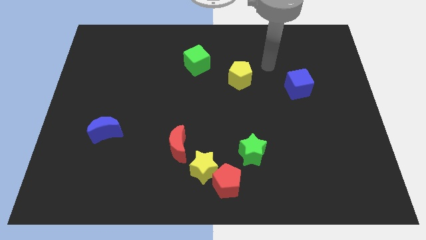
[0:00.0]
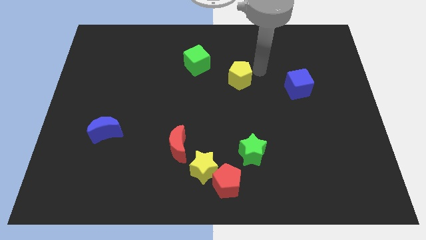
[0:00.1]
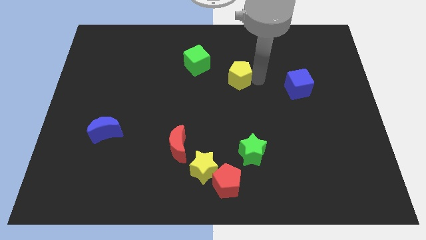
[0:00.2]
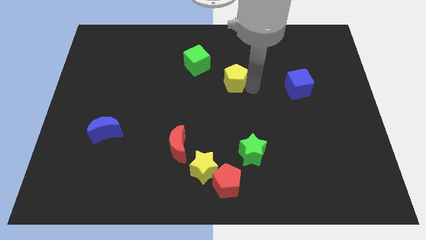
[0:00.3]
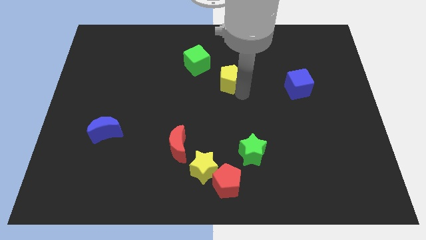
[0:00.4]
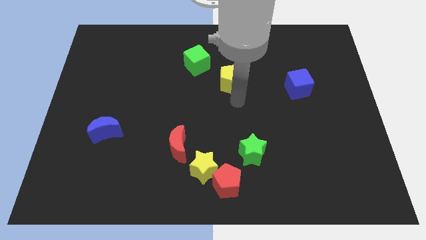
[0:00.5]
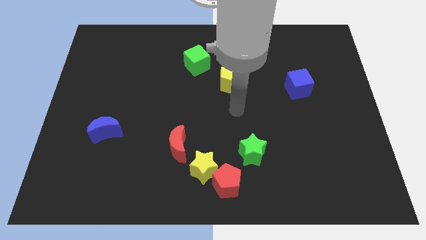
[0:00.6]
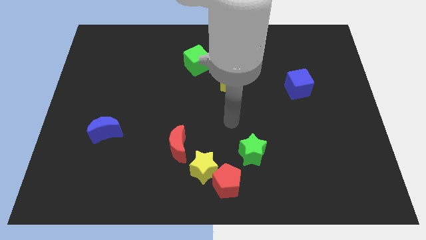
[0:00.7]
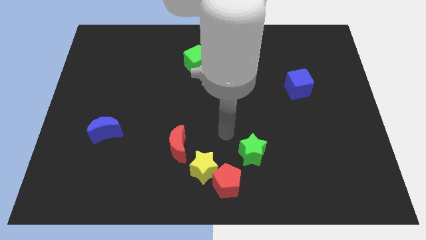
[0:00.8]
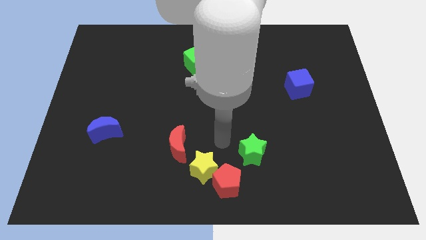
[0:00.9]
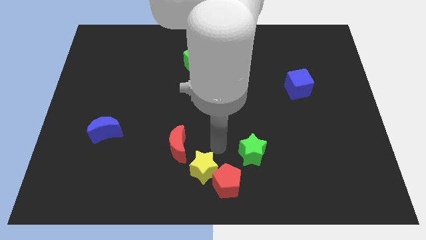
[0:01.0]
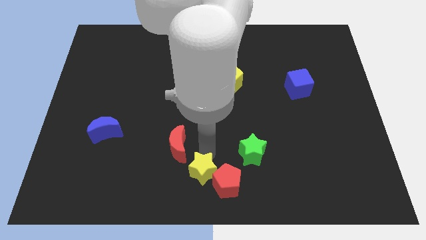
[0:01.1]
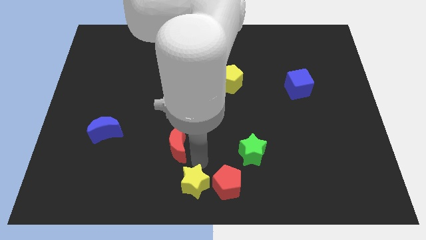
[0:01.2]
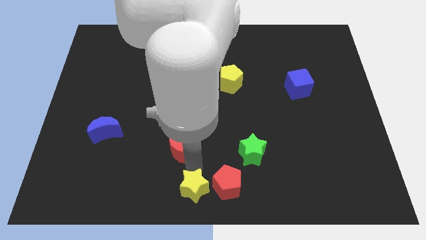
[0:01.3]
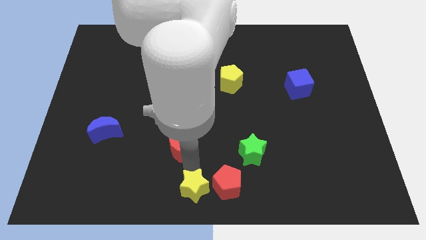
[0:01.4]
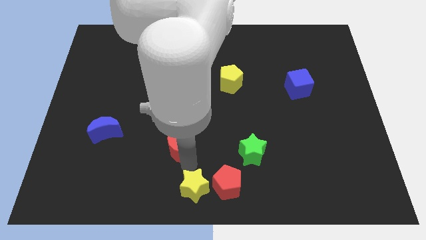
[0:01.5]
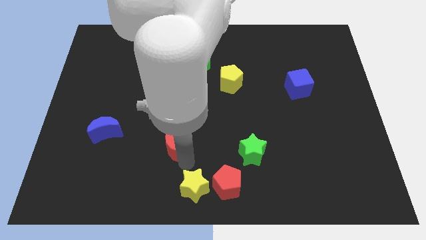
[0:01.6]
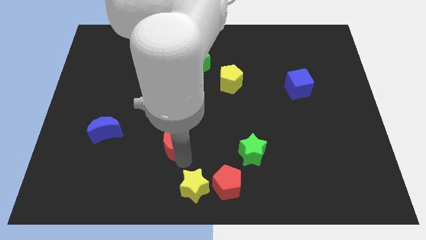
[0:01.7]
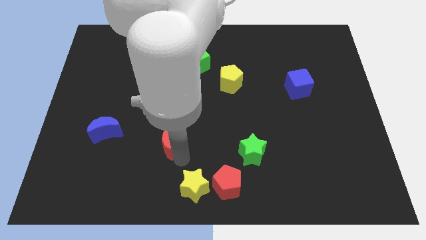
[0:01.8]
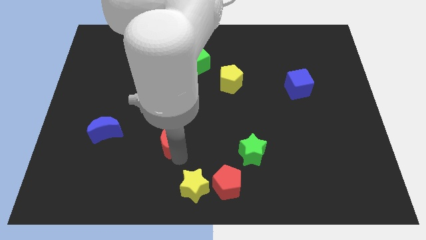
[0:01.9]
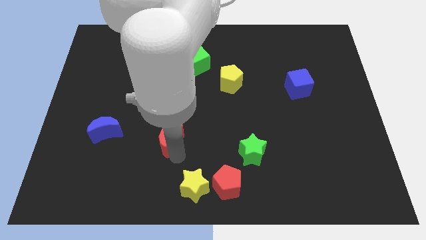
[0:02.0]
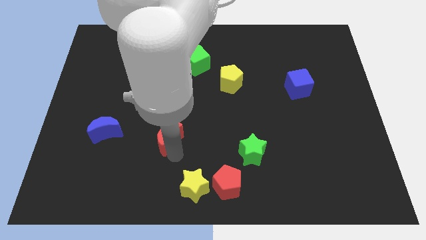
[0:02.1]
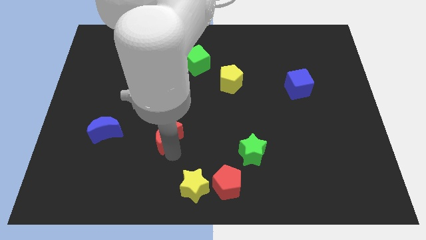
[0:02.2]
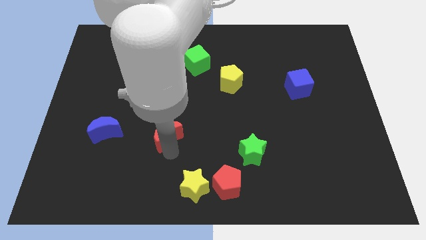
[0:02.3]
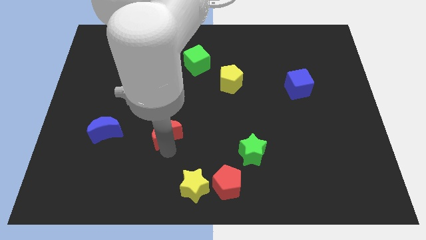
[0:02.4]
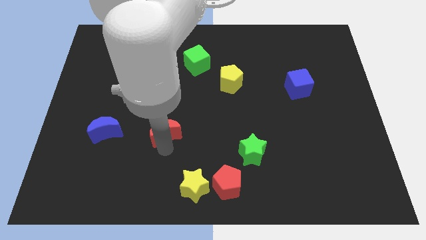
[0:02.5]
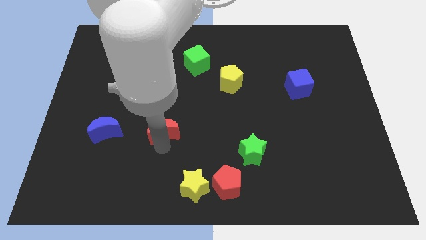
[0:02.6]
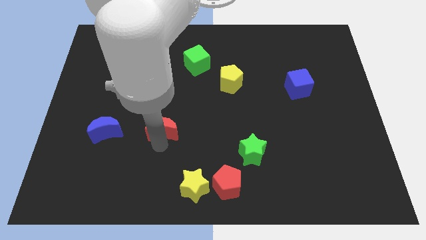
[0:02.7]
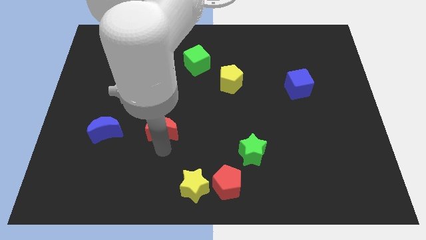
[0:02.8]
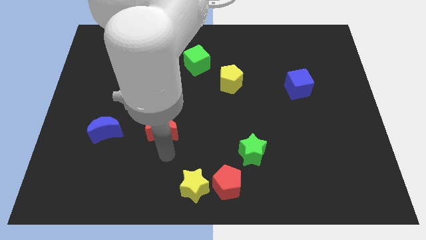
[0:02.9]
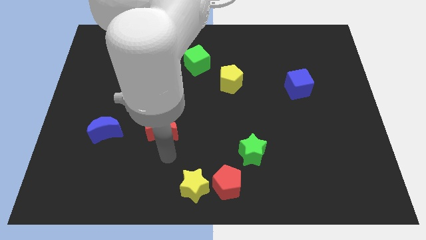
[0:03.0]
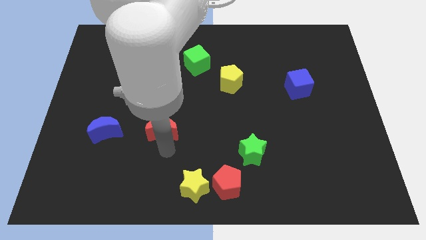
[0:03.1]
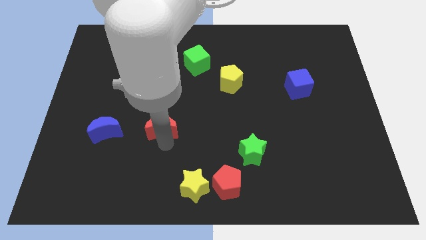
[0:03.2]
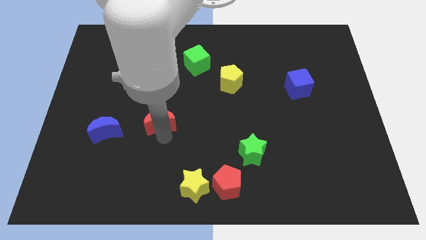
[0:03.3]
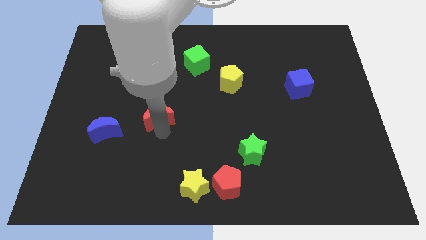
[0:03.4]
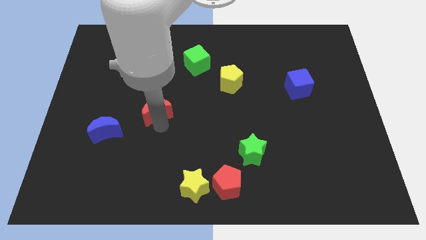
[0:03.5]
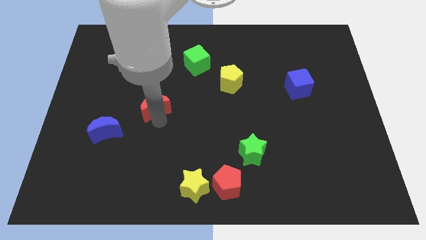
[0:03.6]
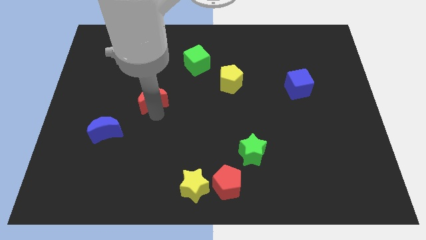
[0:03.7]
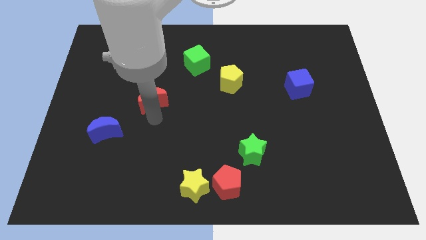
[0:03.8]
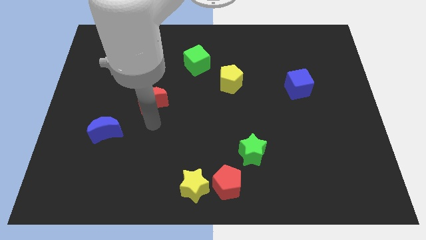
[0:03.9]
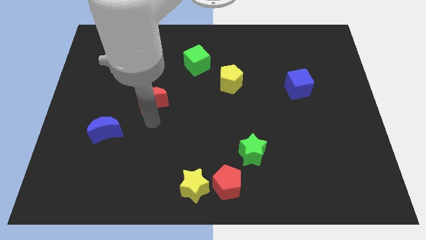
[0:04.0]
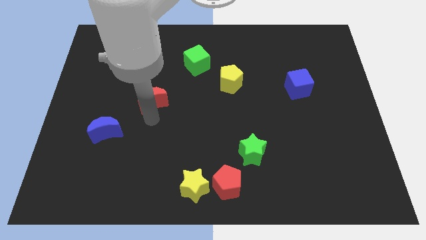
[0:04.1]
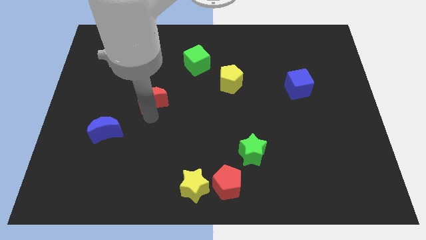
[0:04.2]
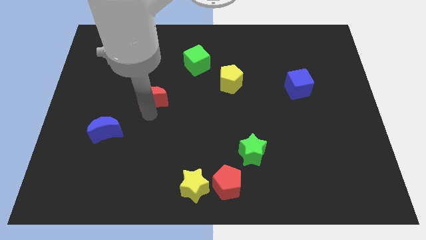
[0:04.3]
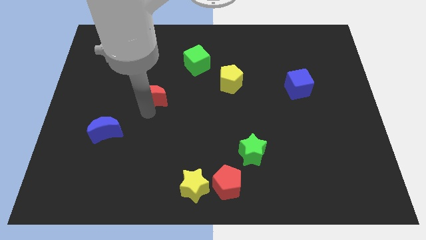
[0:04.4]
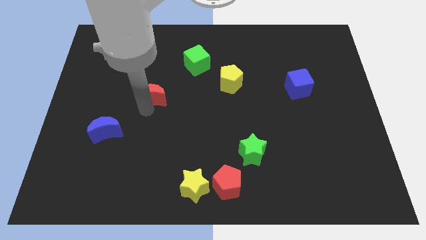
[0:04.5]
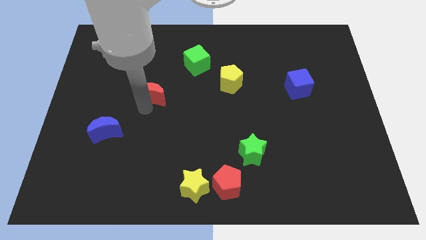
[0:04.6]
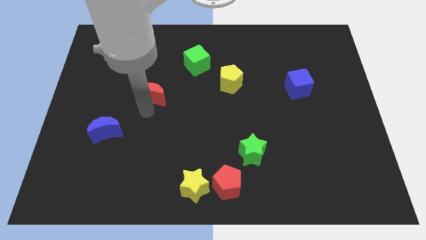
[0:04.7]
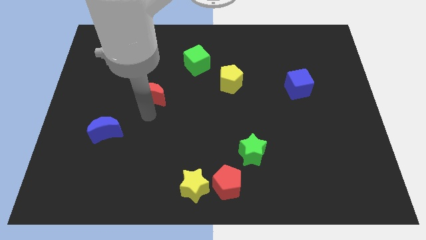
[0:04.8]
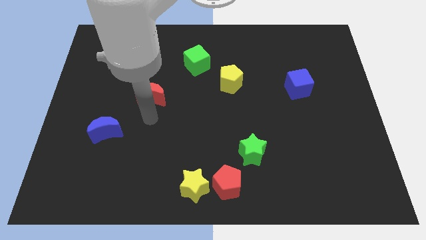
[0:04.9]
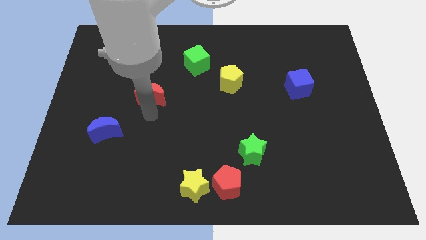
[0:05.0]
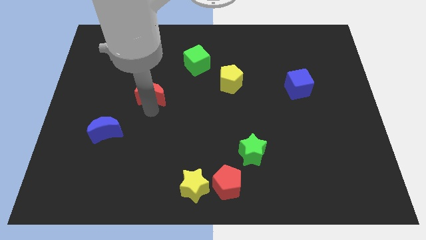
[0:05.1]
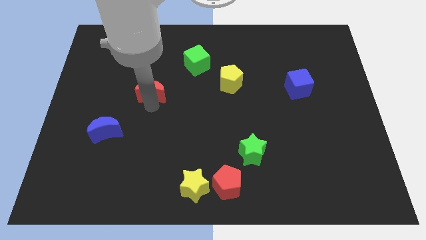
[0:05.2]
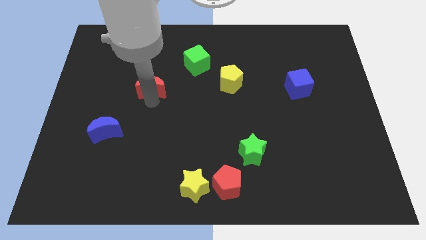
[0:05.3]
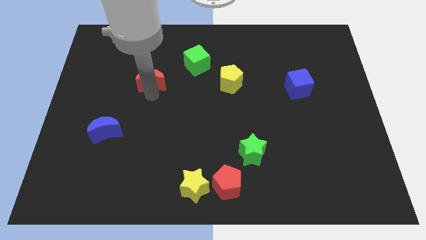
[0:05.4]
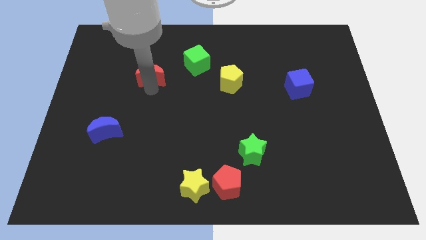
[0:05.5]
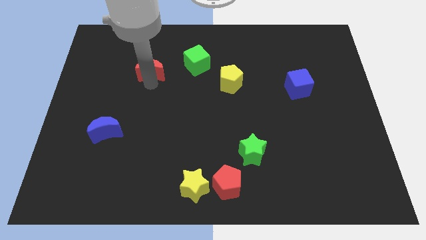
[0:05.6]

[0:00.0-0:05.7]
put the red moon just left of the green cube

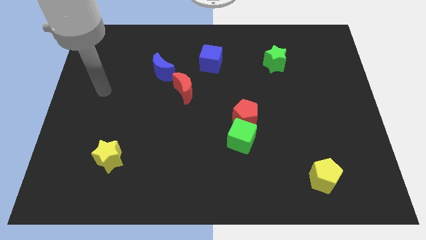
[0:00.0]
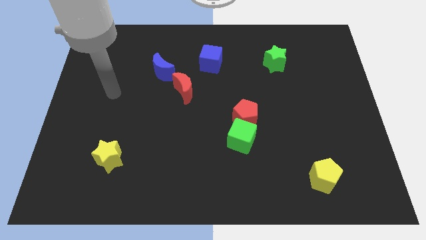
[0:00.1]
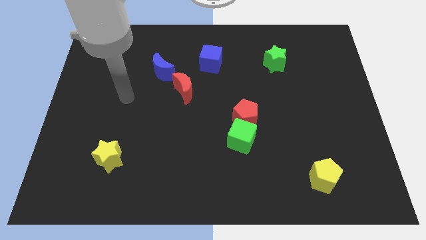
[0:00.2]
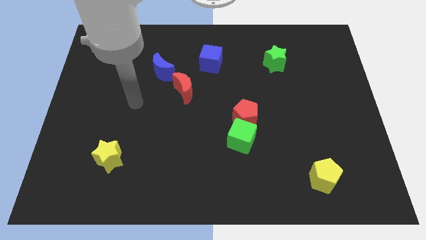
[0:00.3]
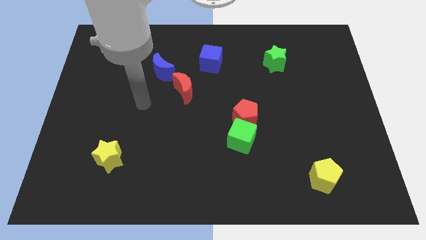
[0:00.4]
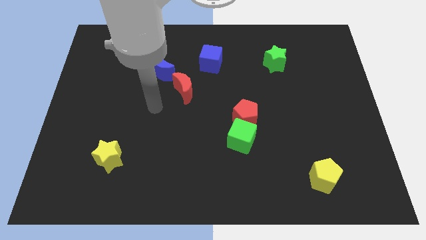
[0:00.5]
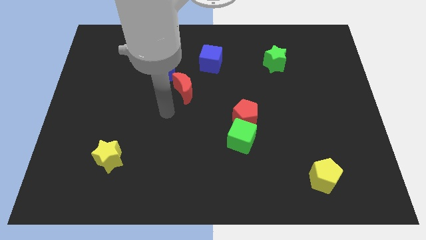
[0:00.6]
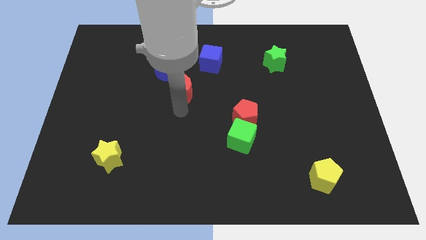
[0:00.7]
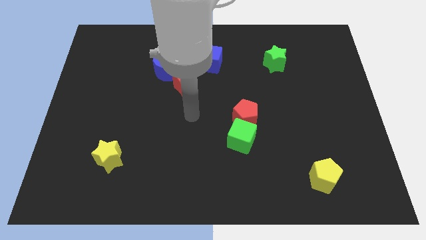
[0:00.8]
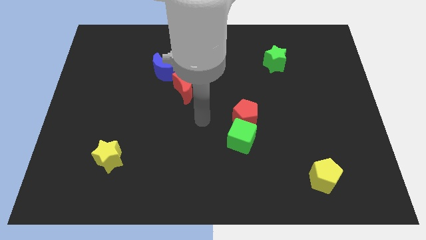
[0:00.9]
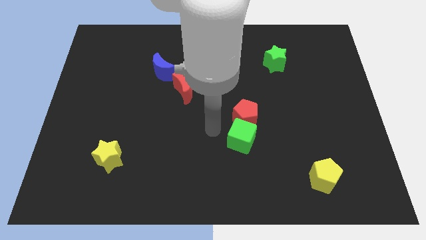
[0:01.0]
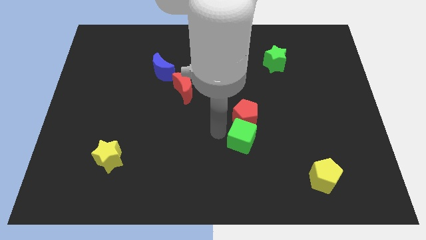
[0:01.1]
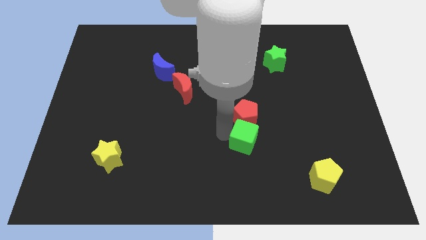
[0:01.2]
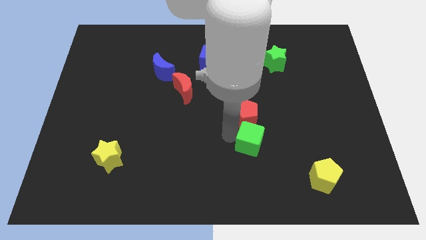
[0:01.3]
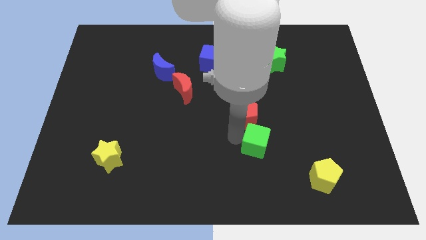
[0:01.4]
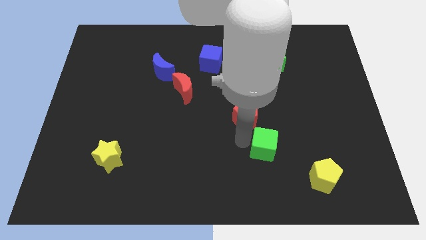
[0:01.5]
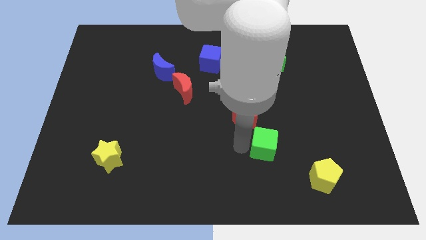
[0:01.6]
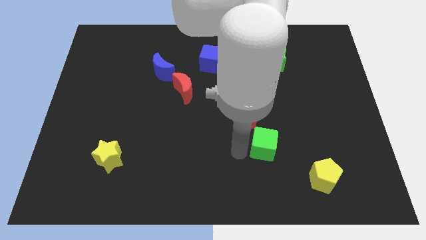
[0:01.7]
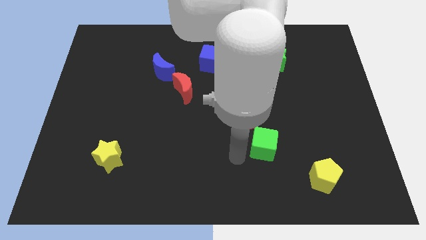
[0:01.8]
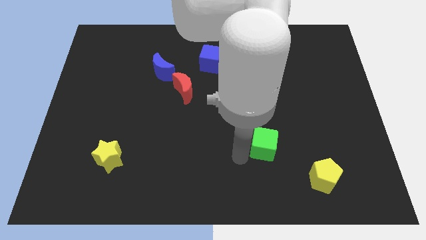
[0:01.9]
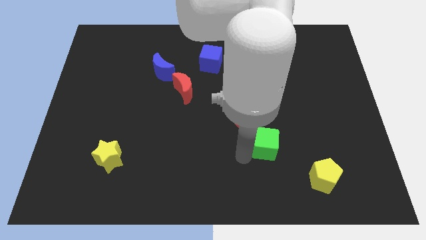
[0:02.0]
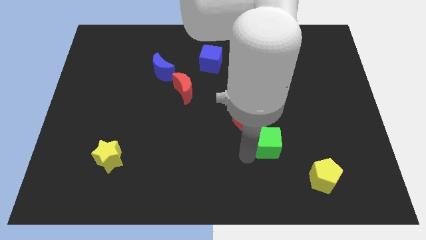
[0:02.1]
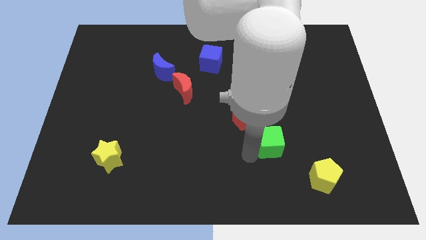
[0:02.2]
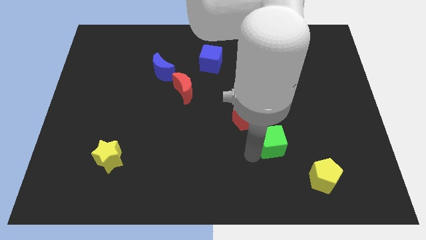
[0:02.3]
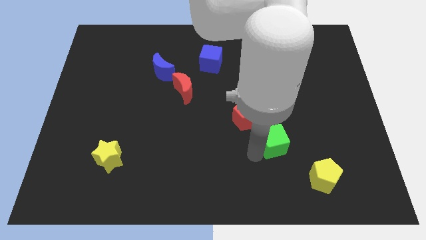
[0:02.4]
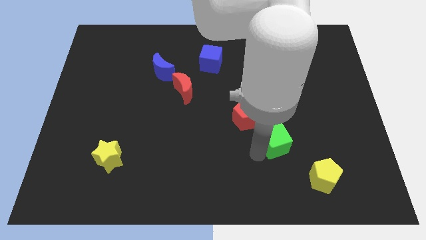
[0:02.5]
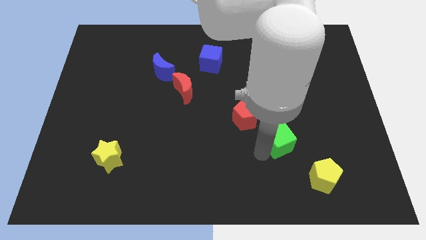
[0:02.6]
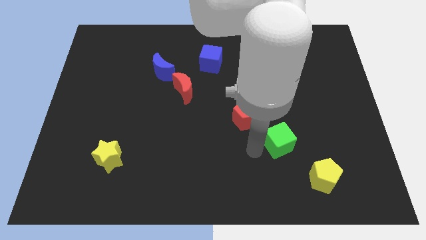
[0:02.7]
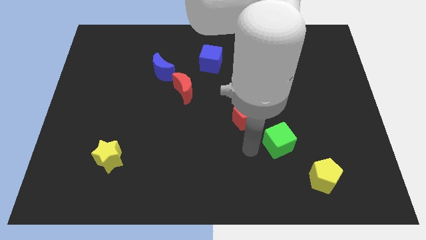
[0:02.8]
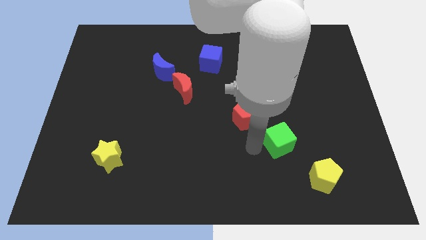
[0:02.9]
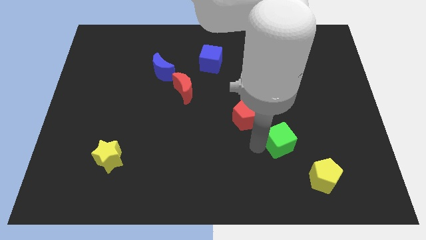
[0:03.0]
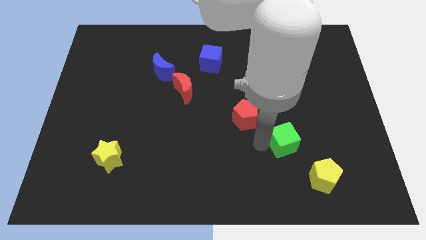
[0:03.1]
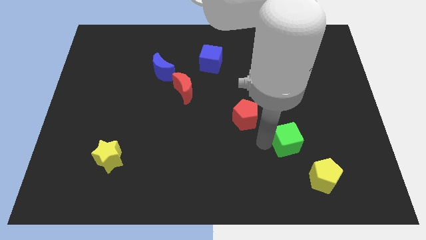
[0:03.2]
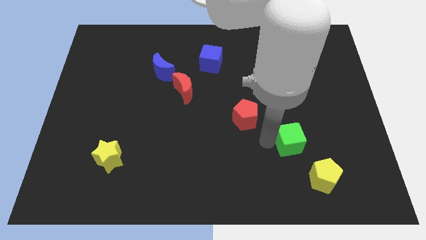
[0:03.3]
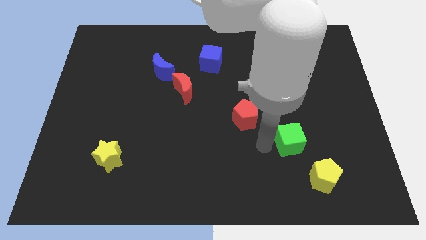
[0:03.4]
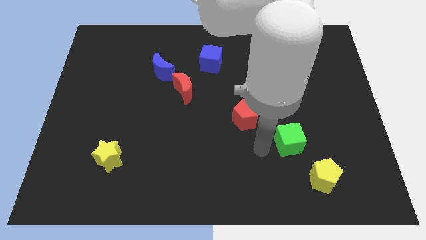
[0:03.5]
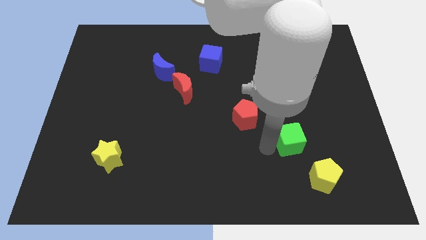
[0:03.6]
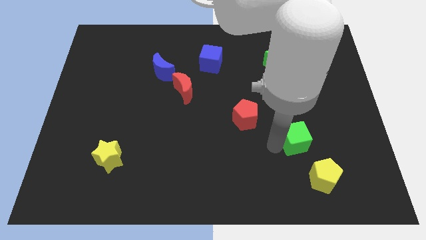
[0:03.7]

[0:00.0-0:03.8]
push the green cube to the top of the yellow pentagon
